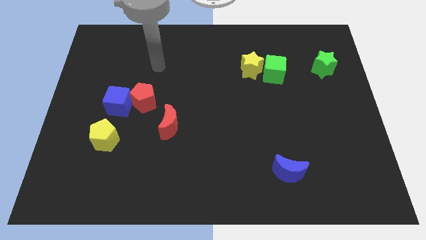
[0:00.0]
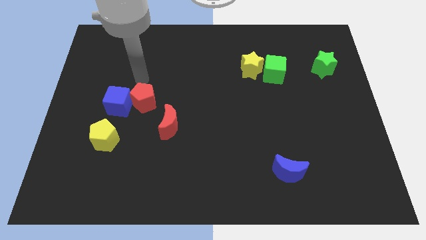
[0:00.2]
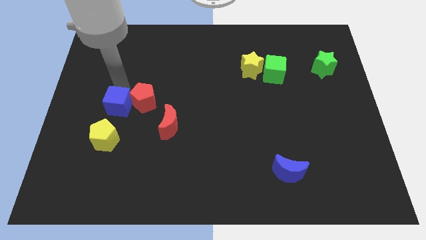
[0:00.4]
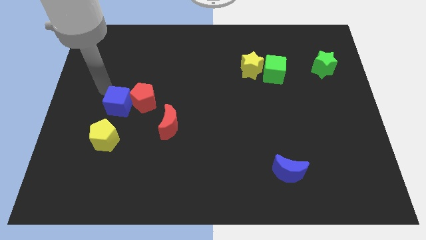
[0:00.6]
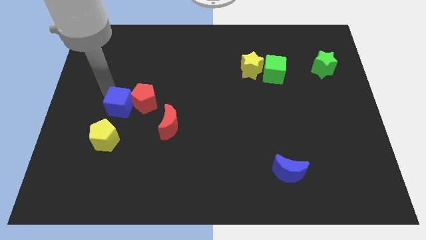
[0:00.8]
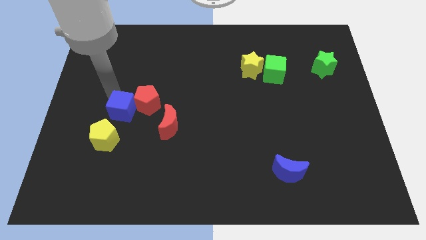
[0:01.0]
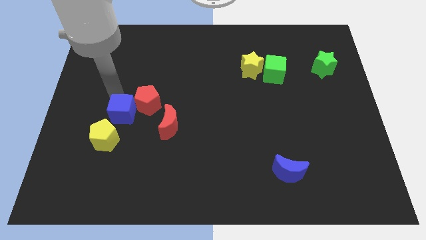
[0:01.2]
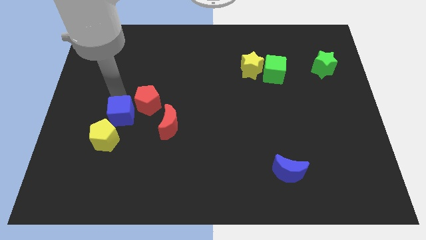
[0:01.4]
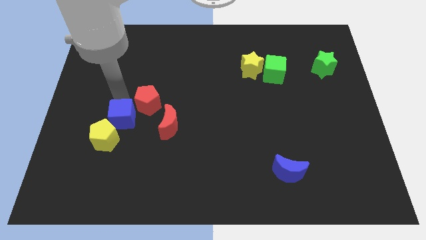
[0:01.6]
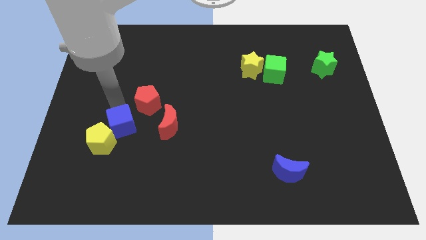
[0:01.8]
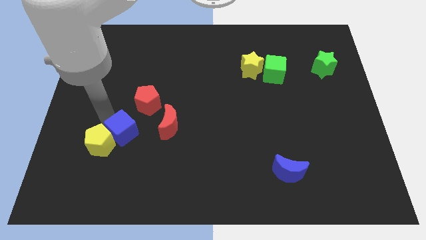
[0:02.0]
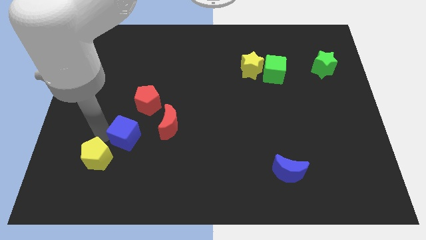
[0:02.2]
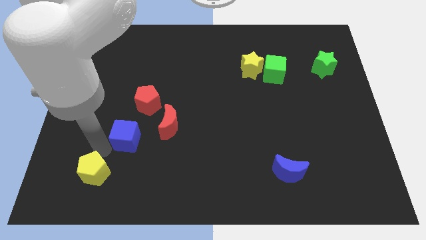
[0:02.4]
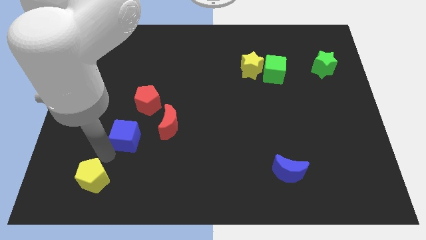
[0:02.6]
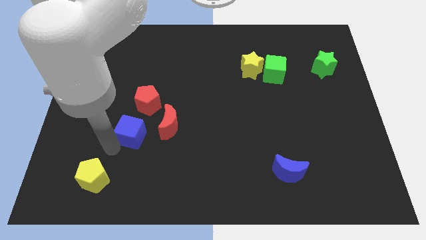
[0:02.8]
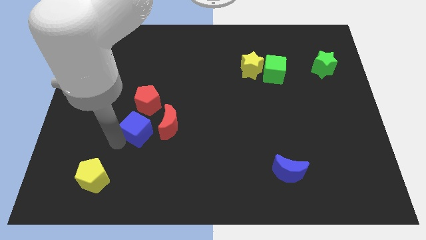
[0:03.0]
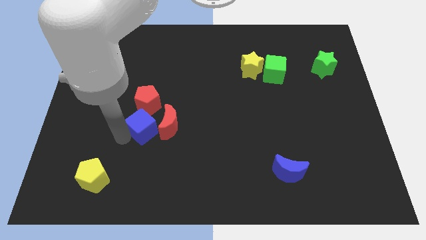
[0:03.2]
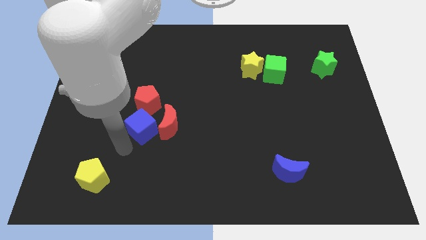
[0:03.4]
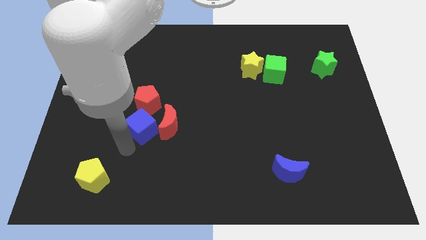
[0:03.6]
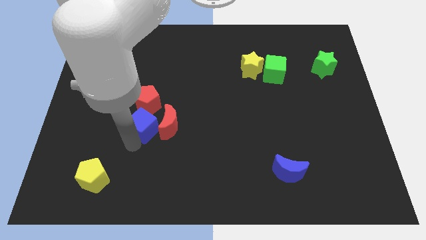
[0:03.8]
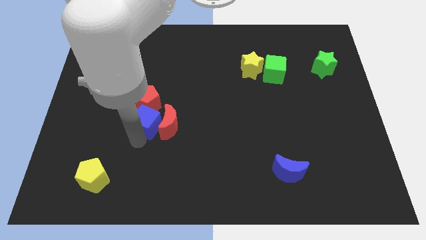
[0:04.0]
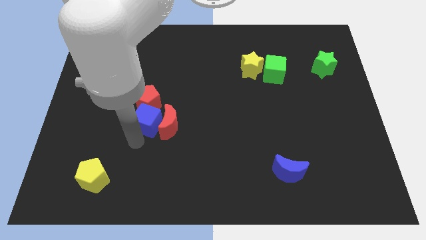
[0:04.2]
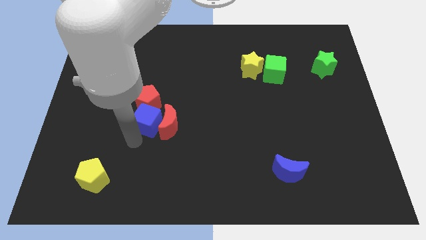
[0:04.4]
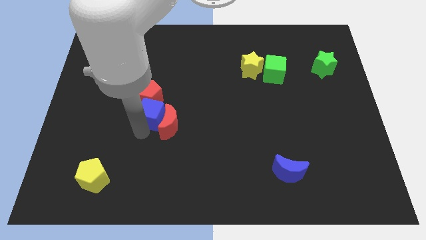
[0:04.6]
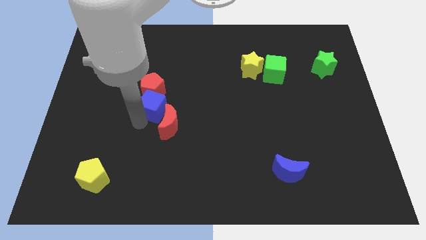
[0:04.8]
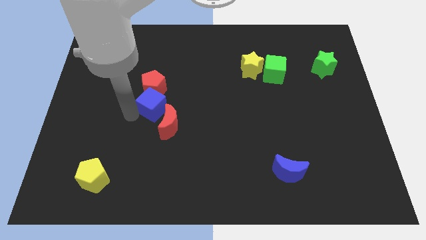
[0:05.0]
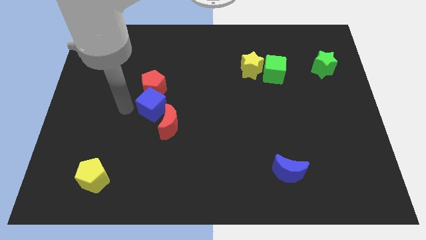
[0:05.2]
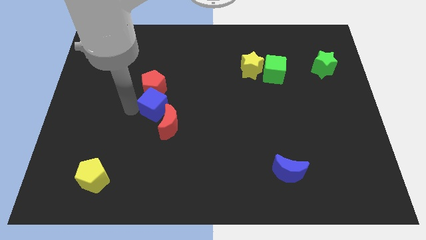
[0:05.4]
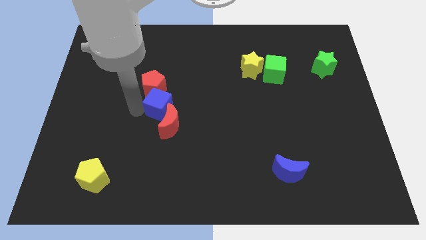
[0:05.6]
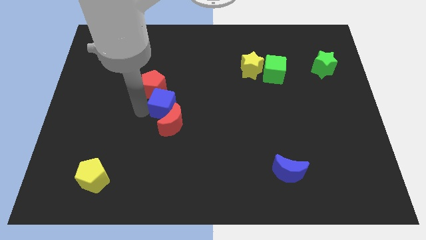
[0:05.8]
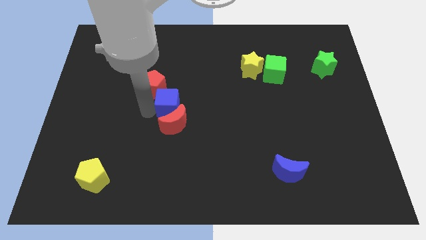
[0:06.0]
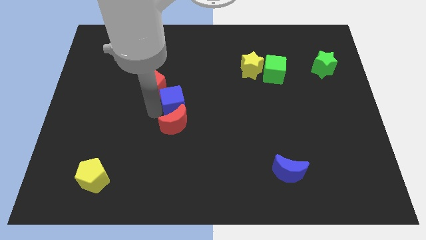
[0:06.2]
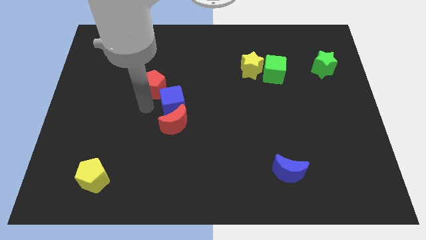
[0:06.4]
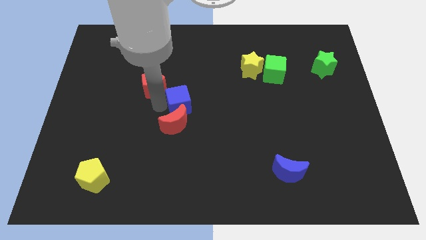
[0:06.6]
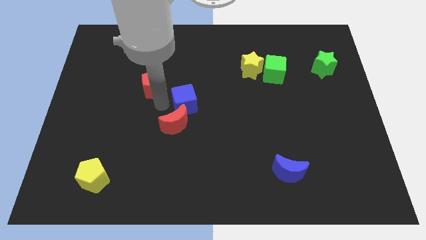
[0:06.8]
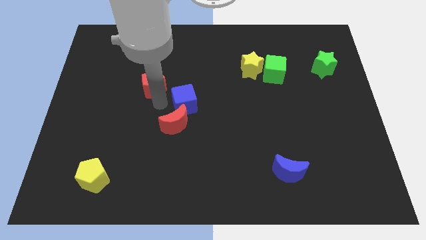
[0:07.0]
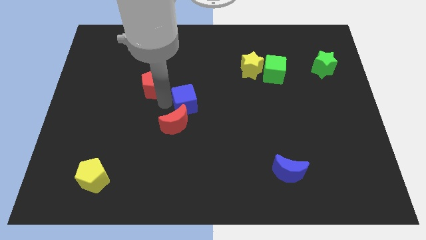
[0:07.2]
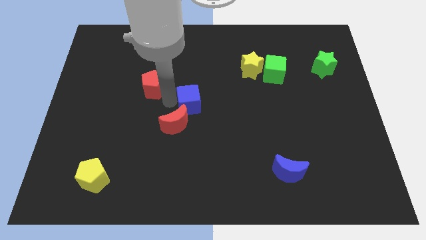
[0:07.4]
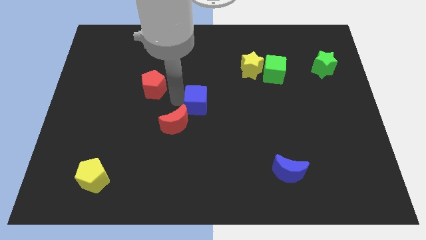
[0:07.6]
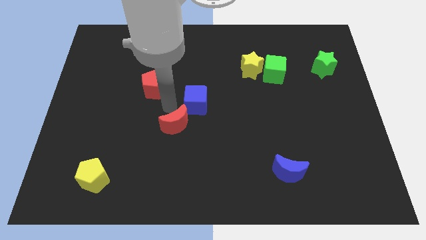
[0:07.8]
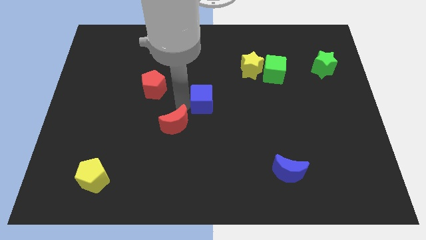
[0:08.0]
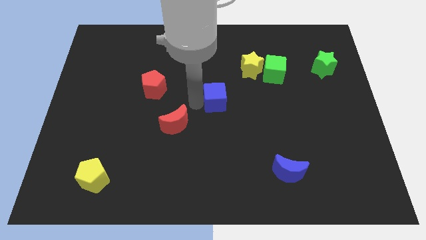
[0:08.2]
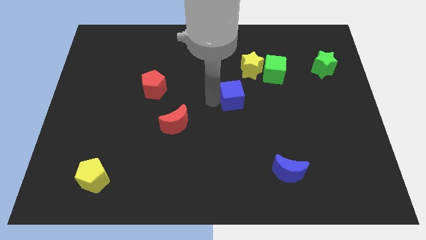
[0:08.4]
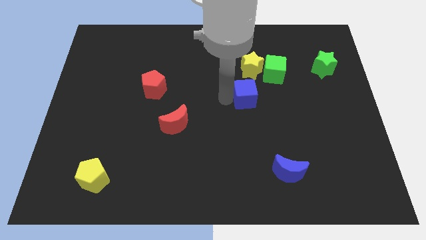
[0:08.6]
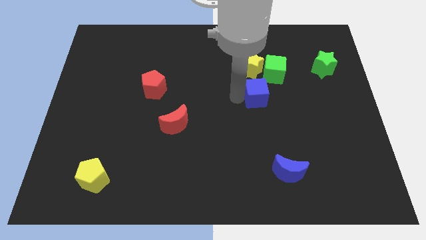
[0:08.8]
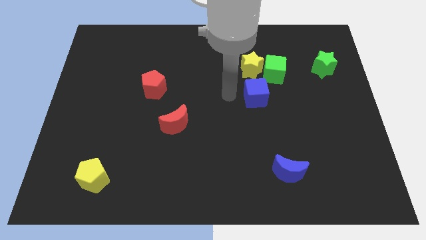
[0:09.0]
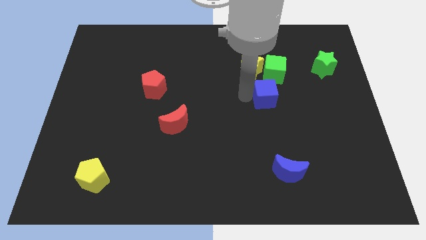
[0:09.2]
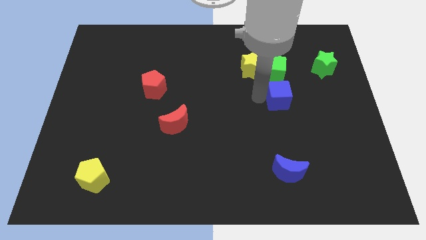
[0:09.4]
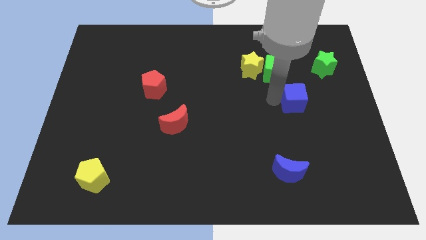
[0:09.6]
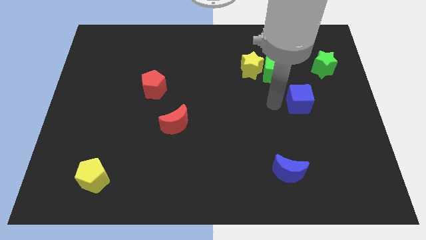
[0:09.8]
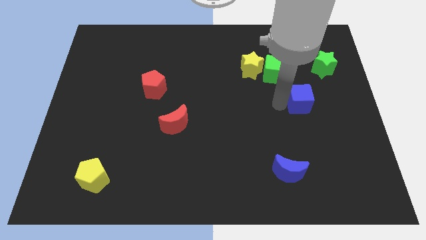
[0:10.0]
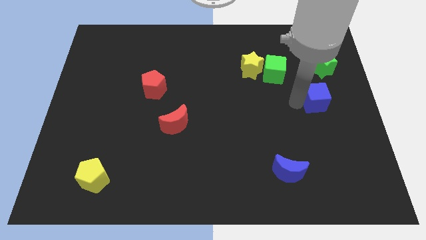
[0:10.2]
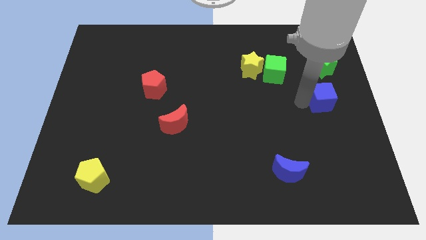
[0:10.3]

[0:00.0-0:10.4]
slide the blue cube to the right side
